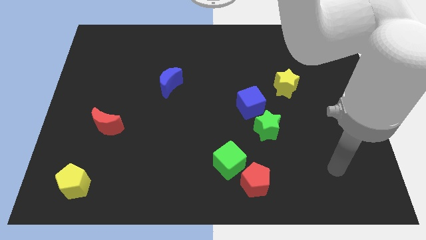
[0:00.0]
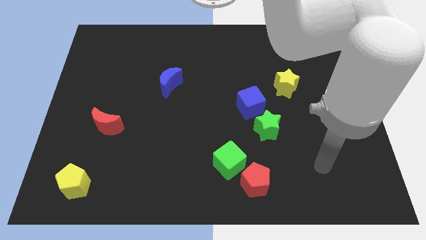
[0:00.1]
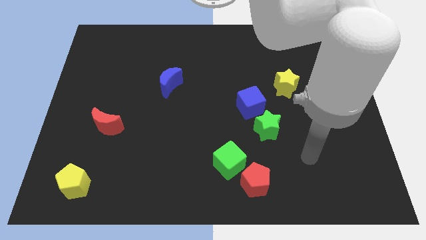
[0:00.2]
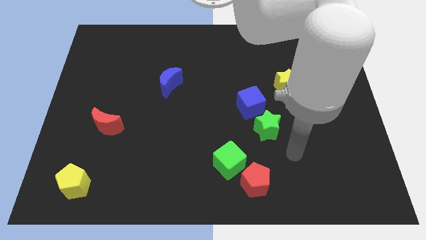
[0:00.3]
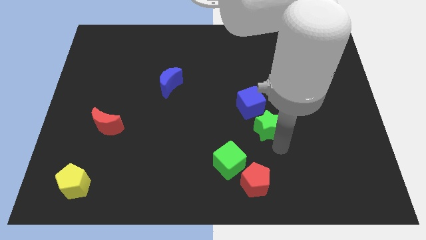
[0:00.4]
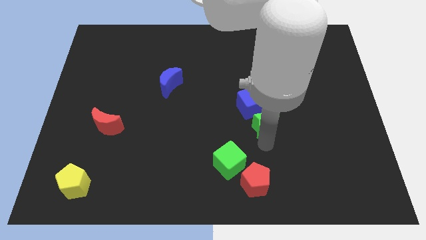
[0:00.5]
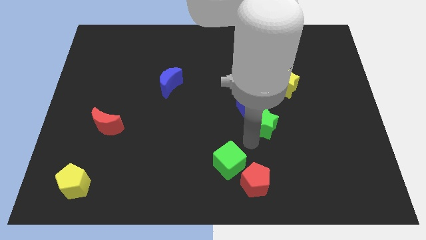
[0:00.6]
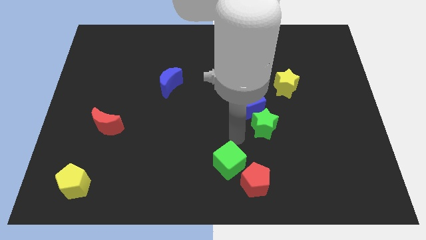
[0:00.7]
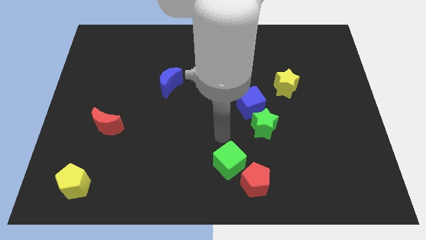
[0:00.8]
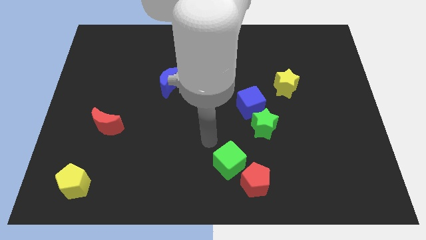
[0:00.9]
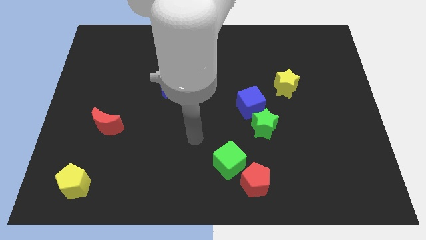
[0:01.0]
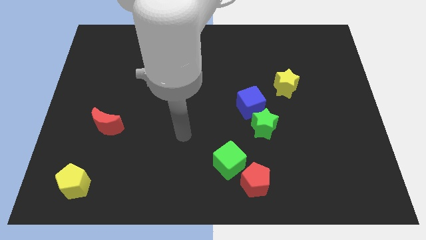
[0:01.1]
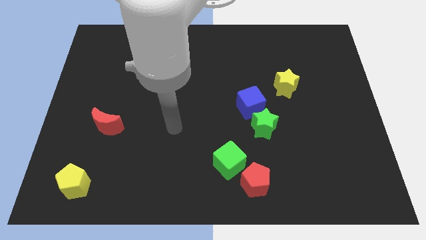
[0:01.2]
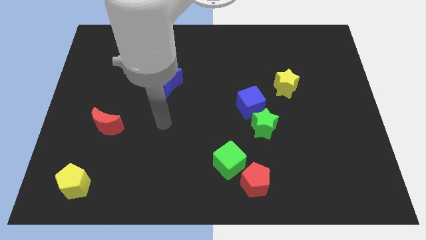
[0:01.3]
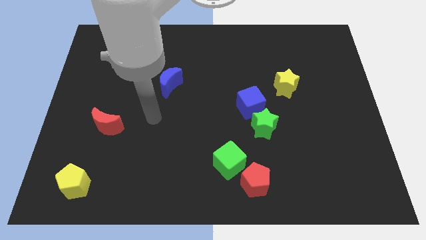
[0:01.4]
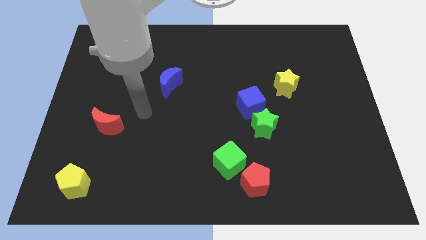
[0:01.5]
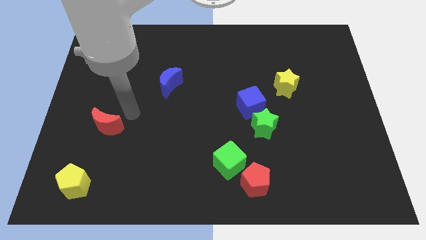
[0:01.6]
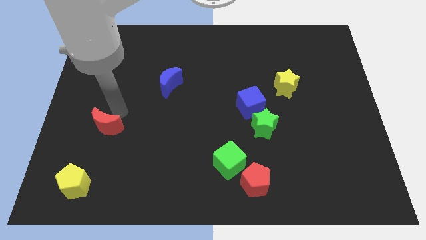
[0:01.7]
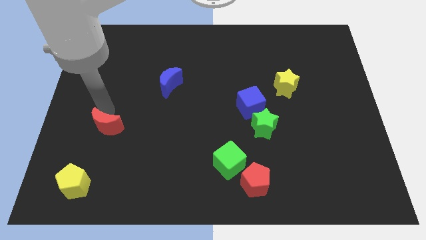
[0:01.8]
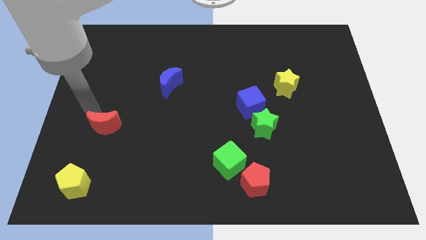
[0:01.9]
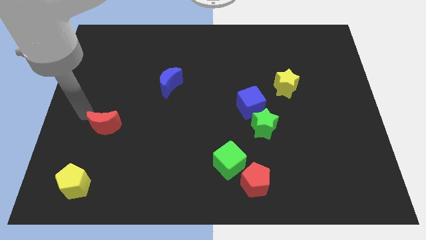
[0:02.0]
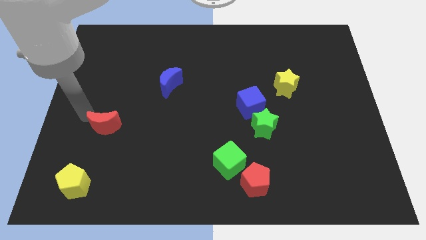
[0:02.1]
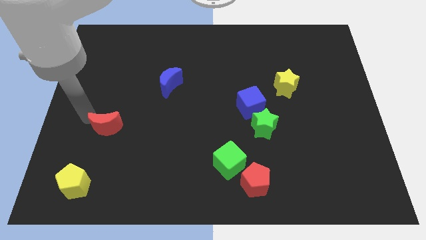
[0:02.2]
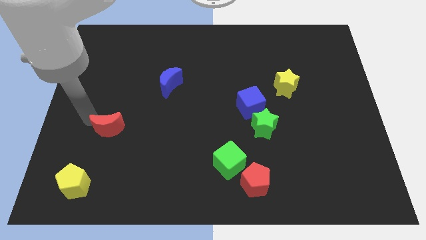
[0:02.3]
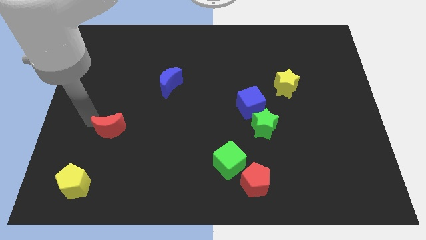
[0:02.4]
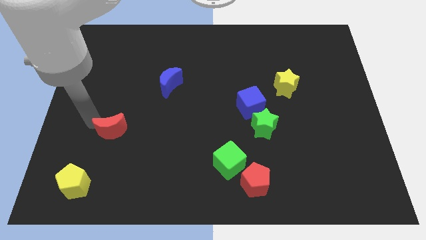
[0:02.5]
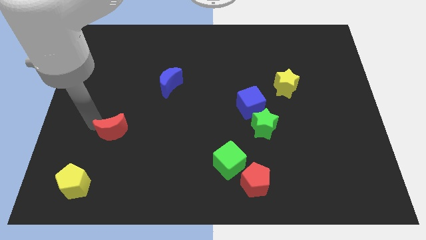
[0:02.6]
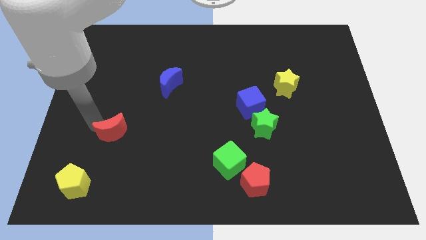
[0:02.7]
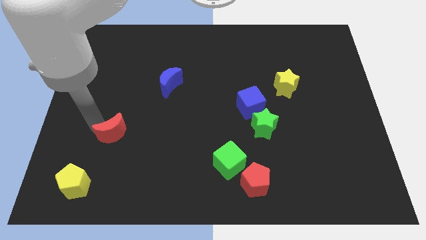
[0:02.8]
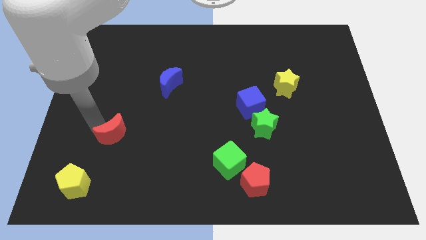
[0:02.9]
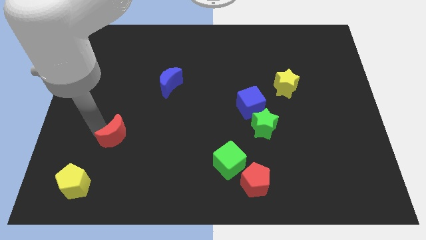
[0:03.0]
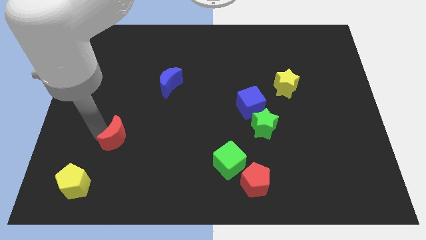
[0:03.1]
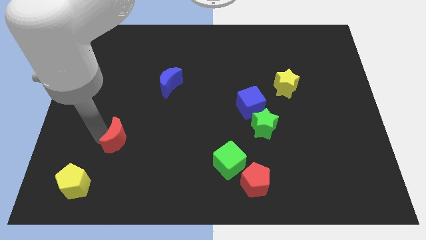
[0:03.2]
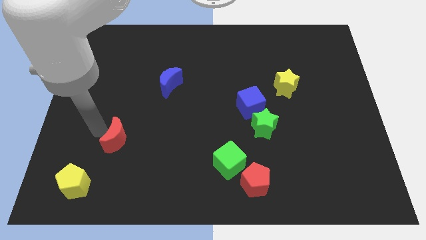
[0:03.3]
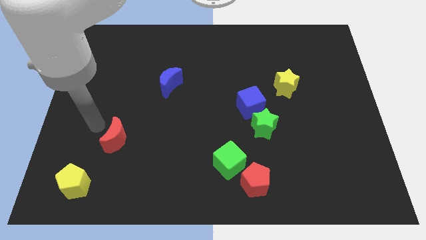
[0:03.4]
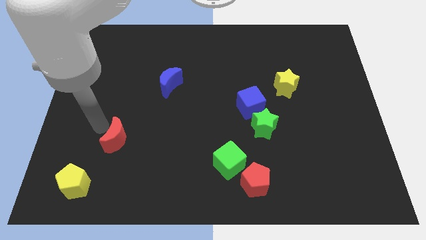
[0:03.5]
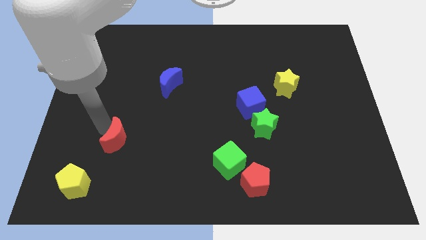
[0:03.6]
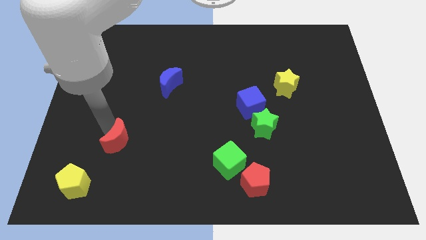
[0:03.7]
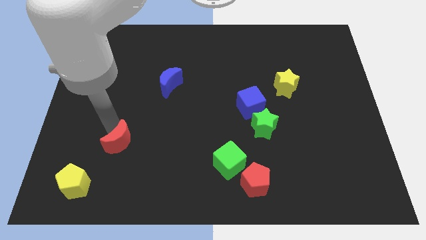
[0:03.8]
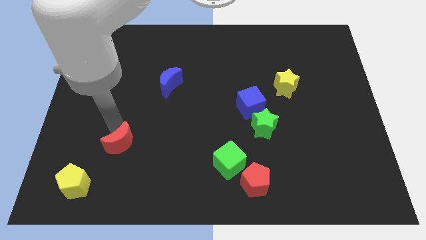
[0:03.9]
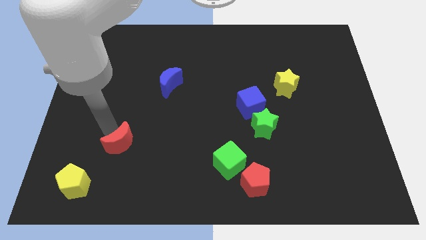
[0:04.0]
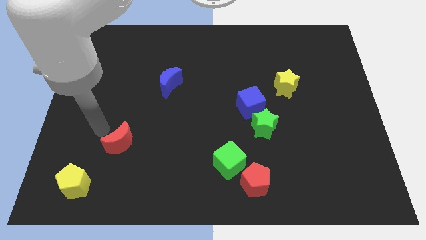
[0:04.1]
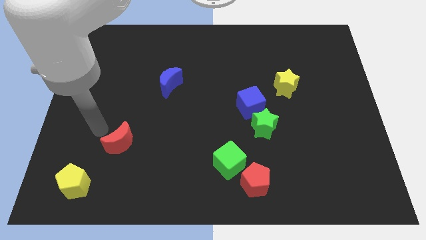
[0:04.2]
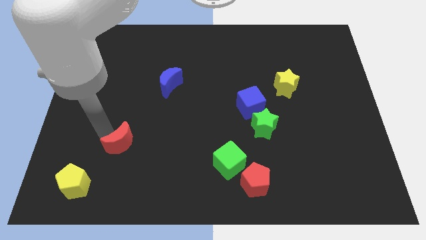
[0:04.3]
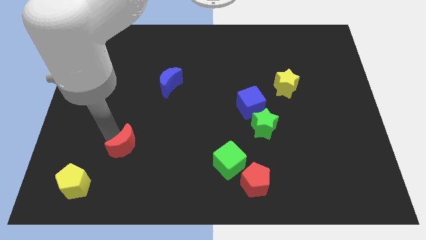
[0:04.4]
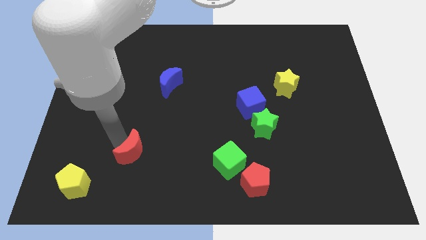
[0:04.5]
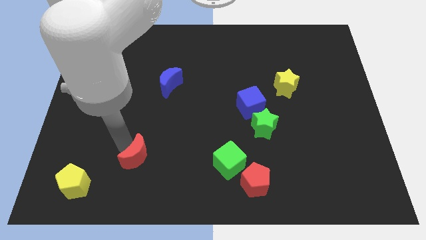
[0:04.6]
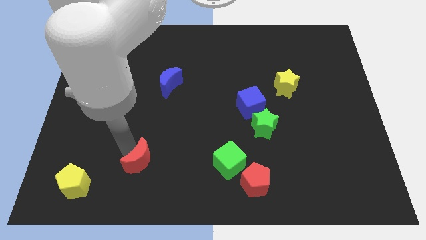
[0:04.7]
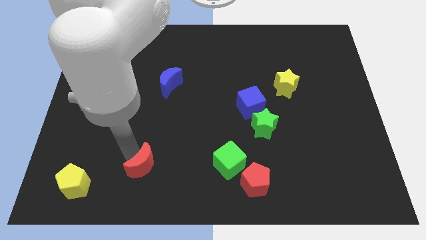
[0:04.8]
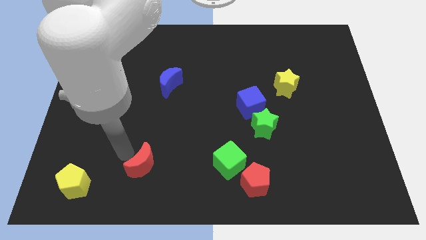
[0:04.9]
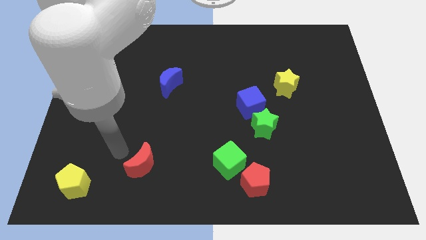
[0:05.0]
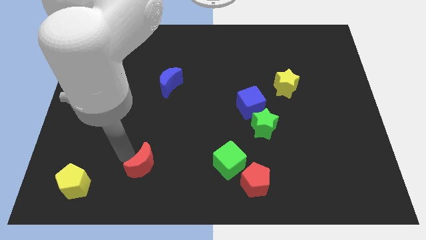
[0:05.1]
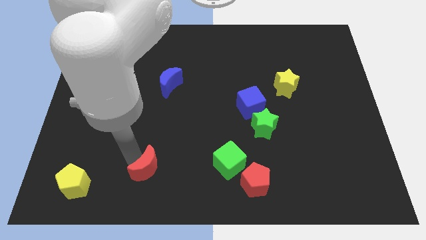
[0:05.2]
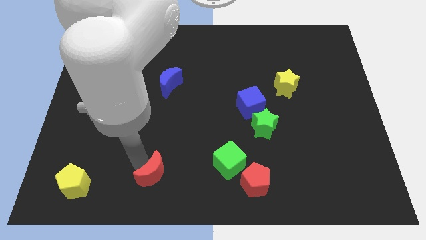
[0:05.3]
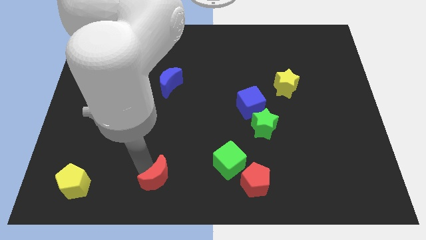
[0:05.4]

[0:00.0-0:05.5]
move the red moon to the bottom side

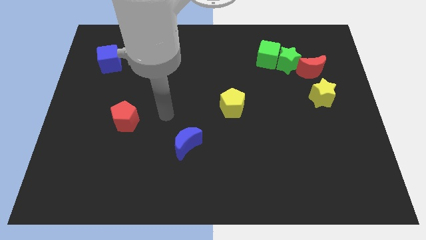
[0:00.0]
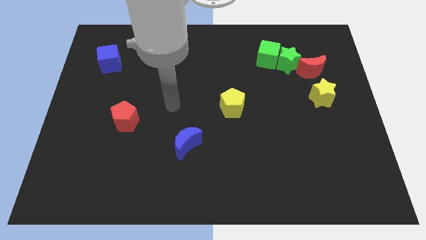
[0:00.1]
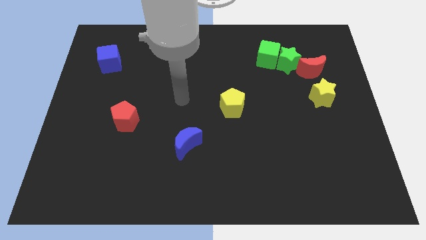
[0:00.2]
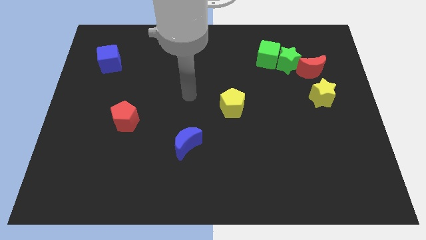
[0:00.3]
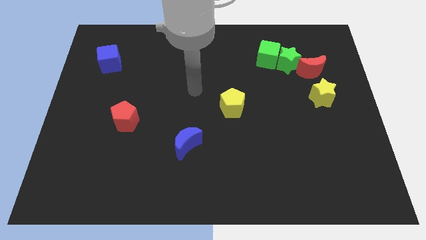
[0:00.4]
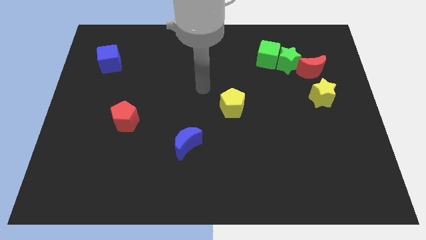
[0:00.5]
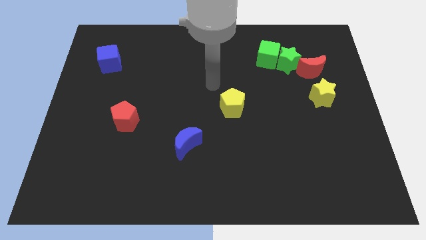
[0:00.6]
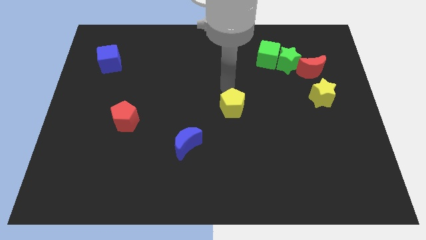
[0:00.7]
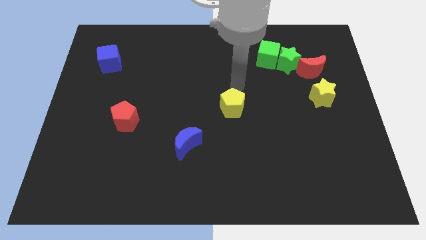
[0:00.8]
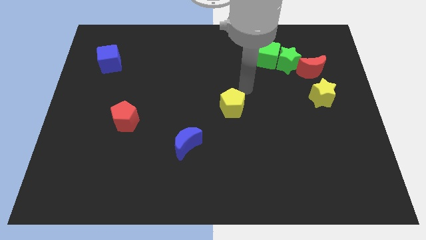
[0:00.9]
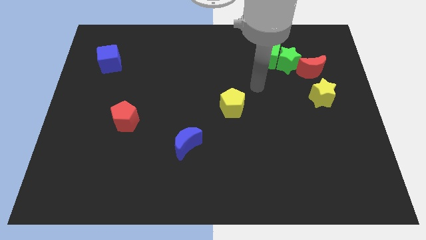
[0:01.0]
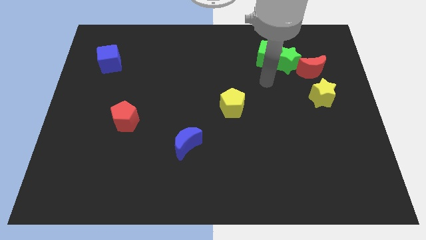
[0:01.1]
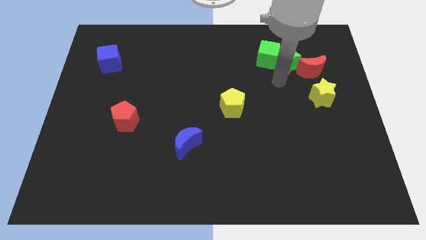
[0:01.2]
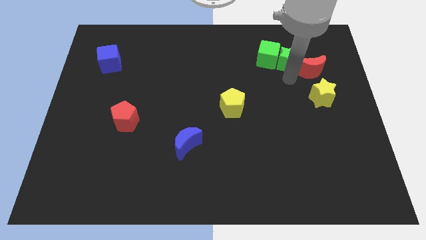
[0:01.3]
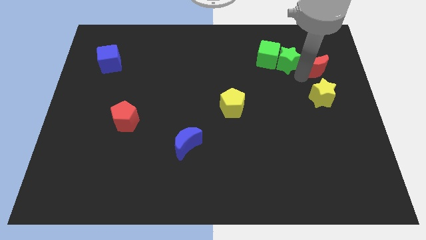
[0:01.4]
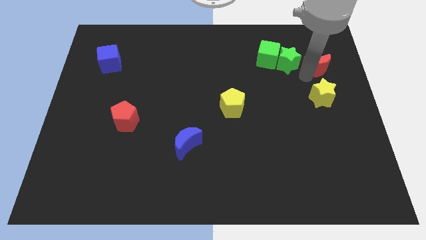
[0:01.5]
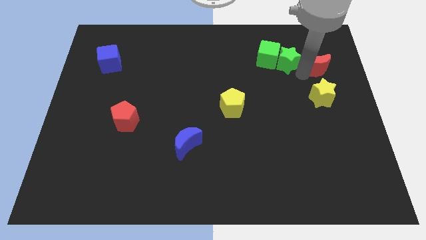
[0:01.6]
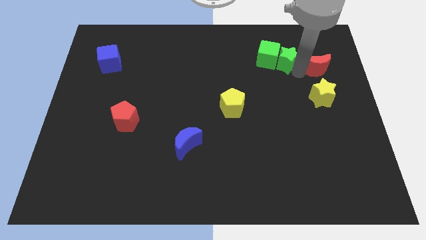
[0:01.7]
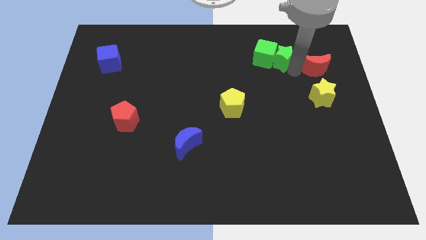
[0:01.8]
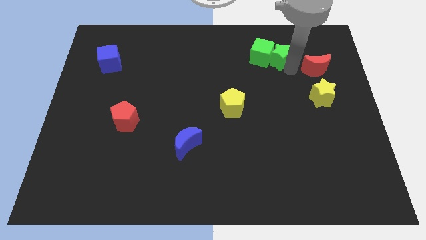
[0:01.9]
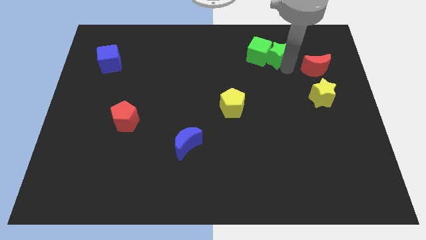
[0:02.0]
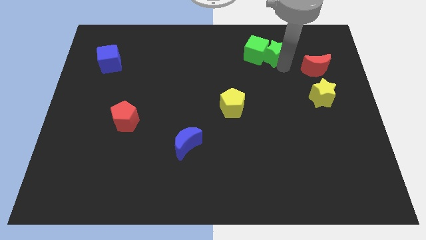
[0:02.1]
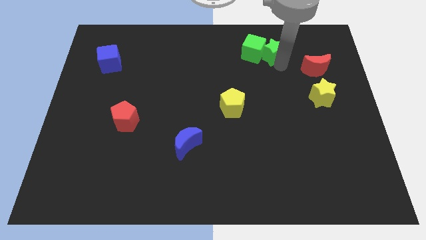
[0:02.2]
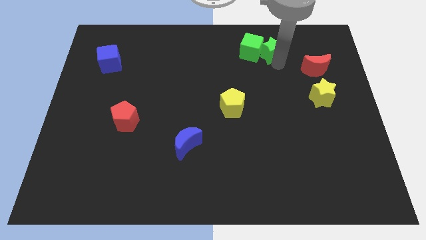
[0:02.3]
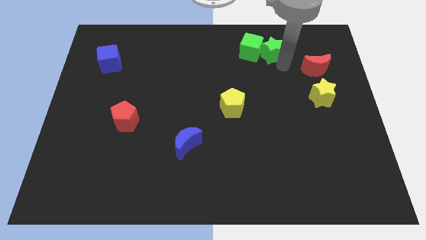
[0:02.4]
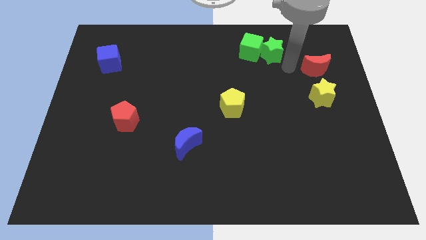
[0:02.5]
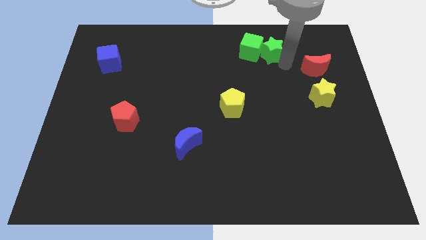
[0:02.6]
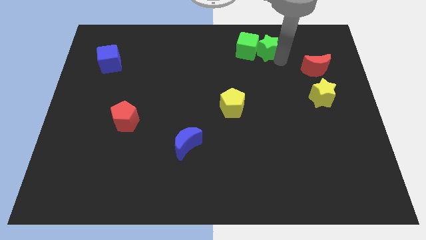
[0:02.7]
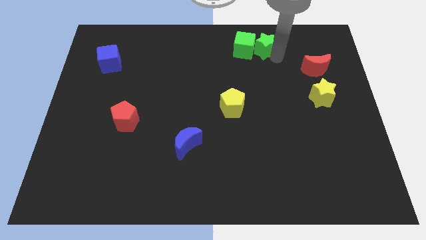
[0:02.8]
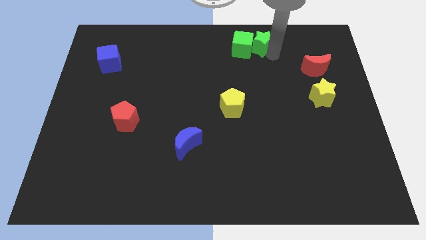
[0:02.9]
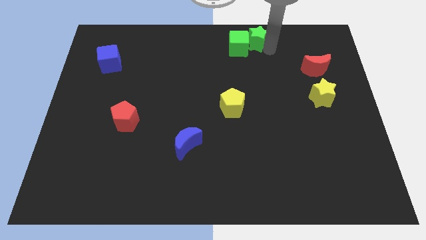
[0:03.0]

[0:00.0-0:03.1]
push the green star to the towards your base
